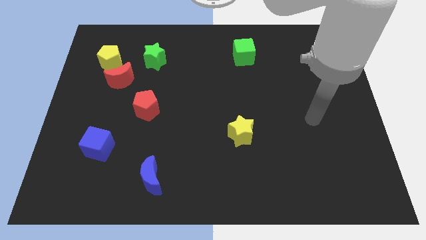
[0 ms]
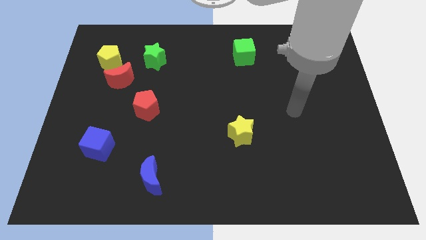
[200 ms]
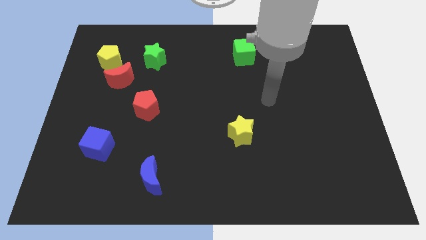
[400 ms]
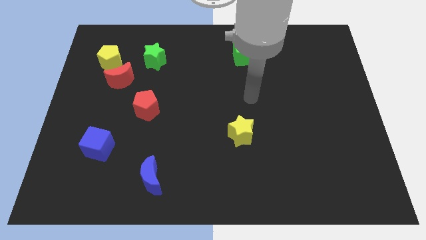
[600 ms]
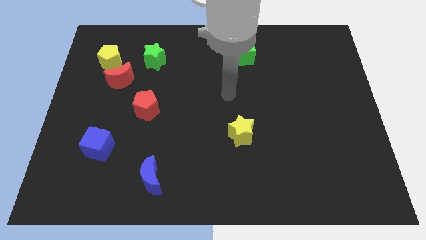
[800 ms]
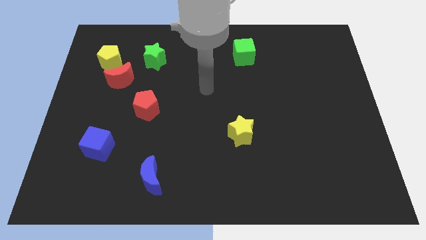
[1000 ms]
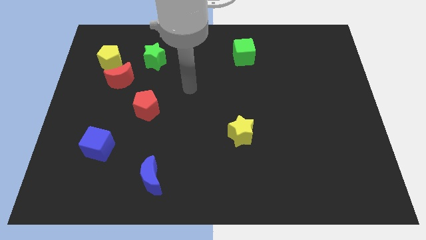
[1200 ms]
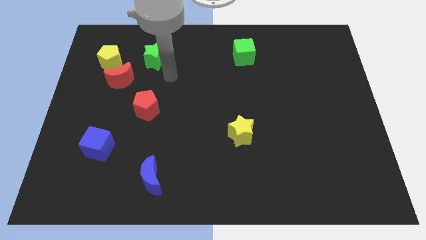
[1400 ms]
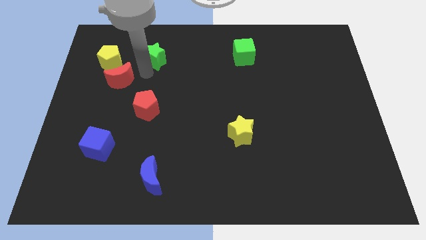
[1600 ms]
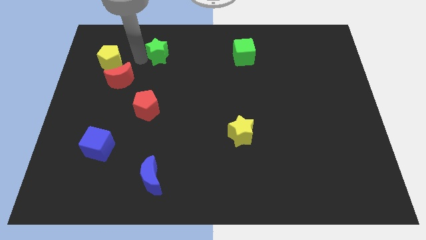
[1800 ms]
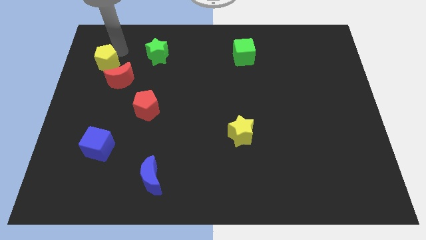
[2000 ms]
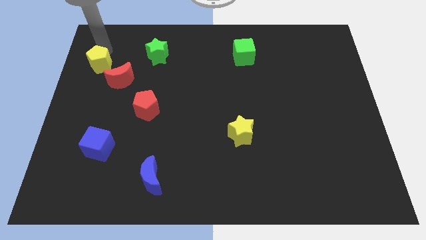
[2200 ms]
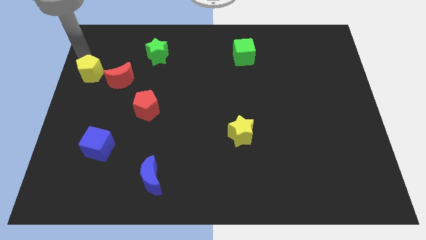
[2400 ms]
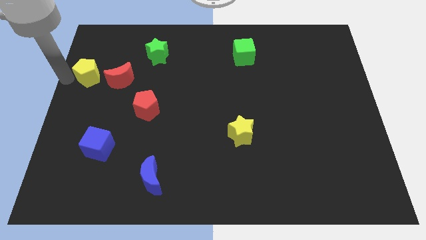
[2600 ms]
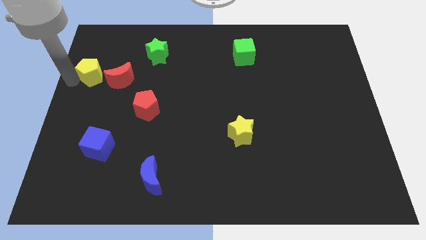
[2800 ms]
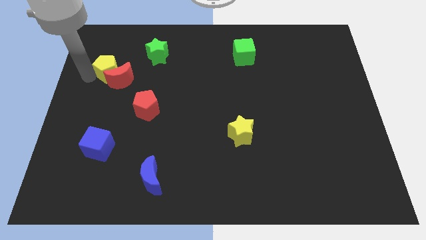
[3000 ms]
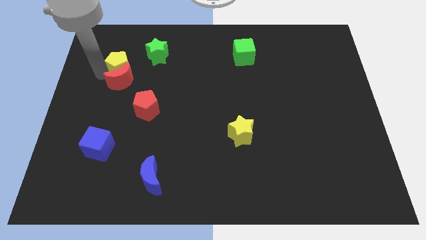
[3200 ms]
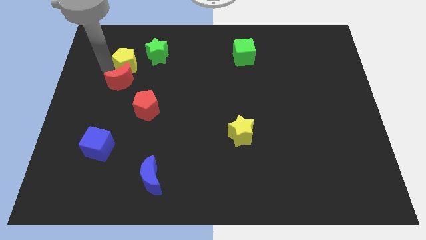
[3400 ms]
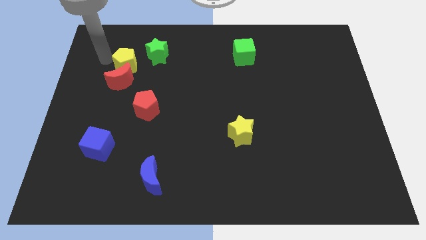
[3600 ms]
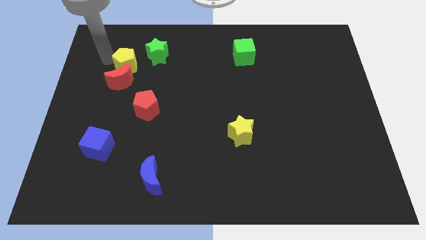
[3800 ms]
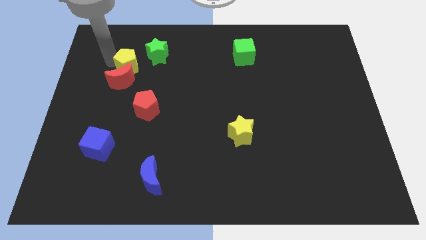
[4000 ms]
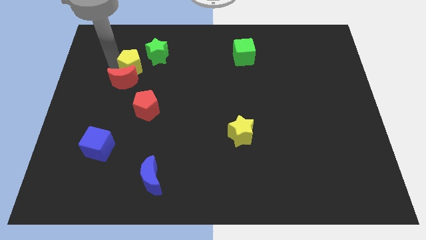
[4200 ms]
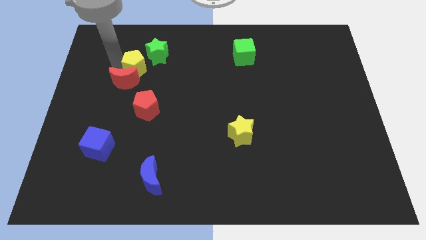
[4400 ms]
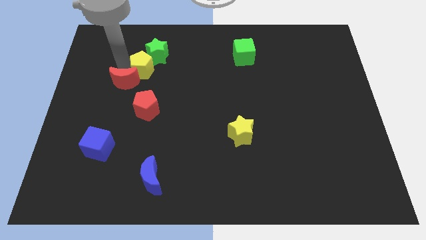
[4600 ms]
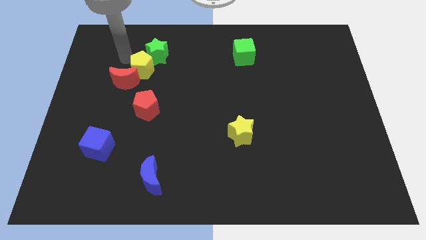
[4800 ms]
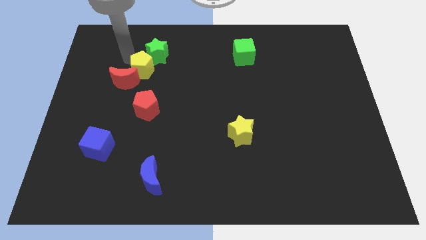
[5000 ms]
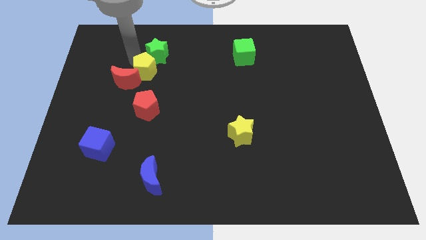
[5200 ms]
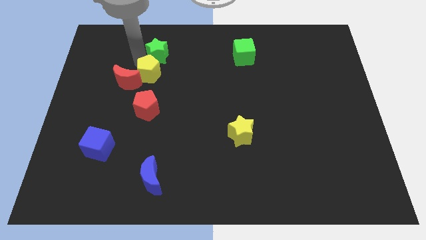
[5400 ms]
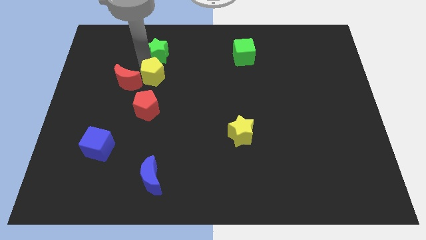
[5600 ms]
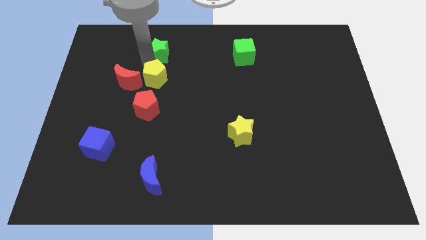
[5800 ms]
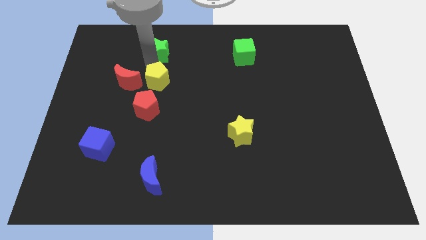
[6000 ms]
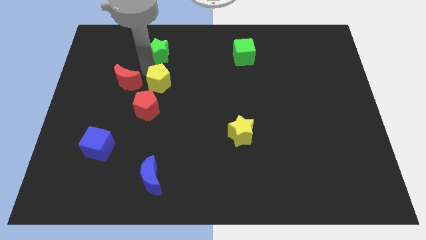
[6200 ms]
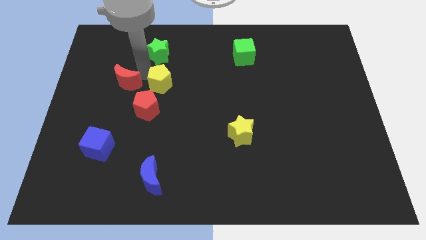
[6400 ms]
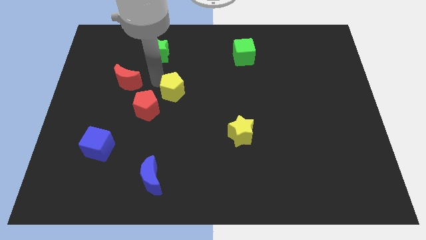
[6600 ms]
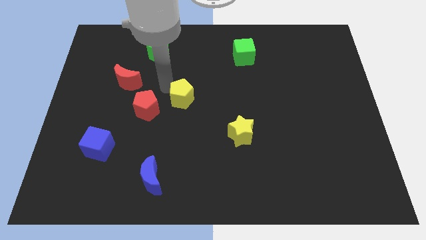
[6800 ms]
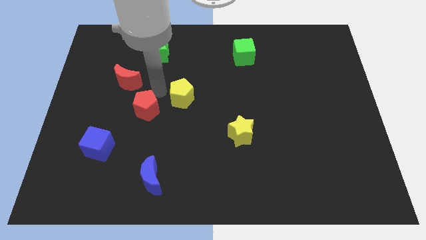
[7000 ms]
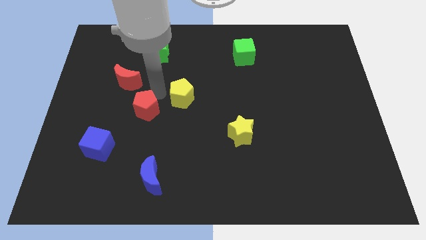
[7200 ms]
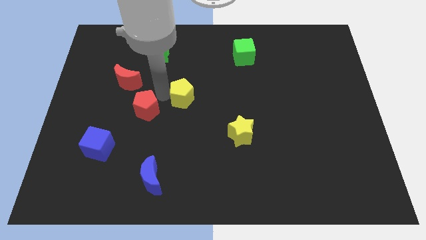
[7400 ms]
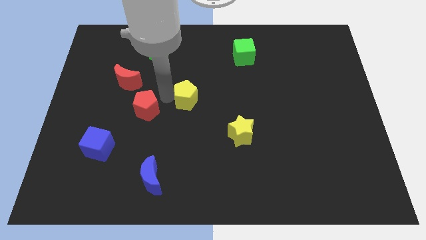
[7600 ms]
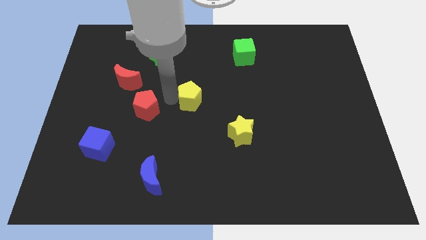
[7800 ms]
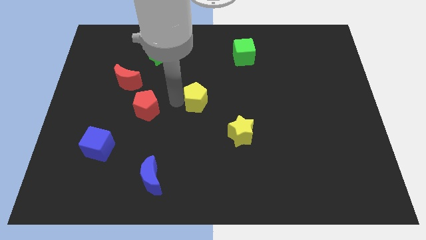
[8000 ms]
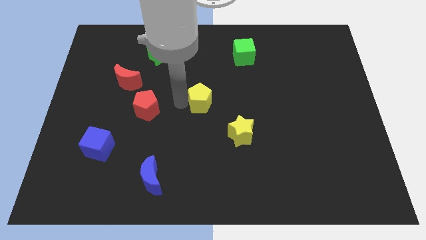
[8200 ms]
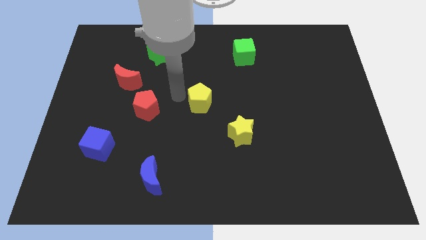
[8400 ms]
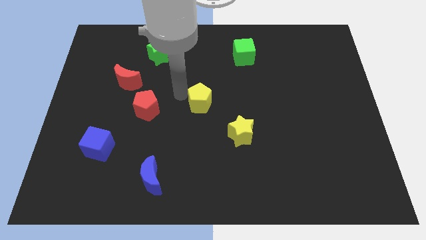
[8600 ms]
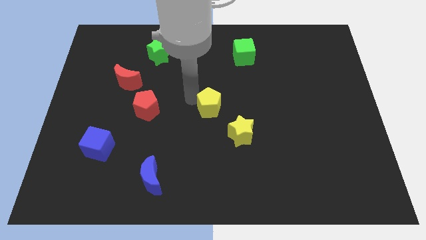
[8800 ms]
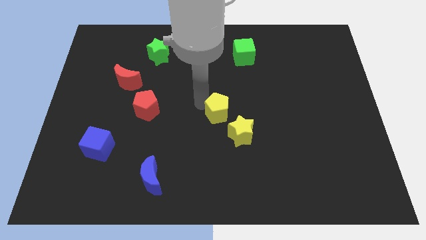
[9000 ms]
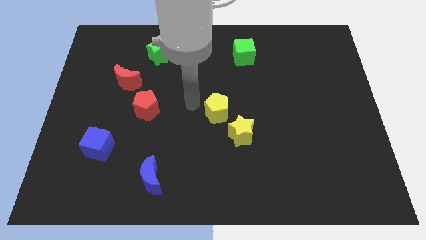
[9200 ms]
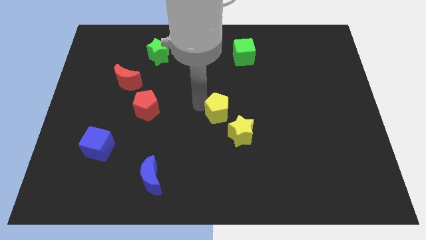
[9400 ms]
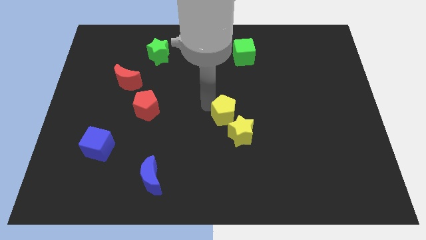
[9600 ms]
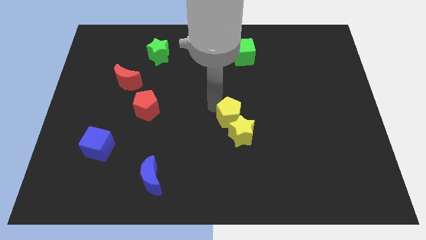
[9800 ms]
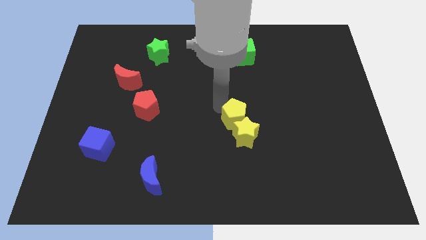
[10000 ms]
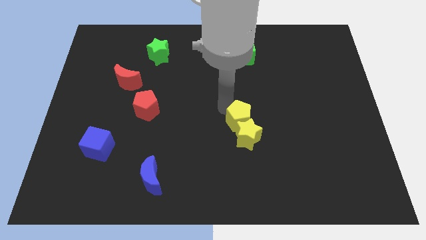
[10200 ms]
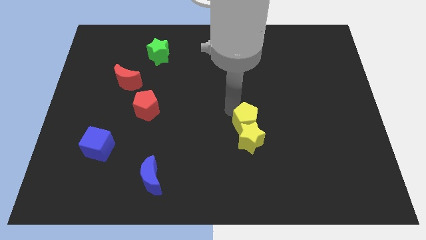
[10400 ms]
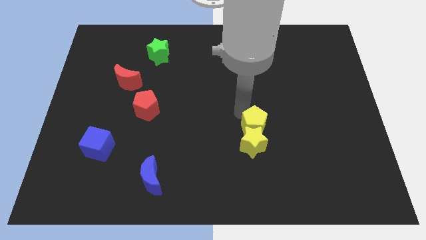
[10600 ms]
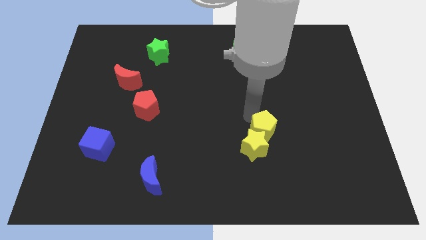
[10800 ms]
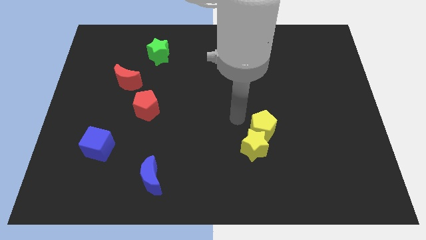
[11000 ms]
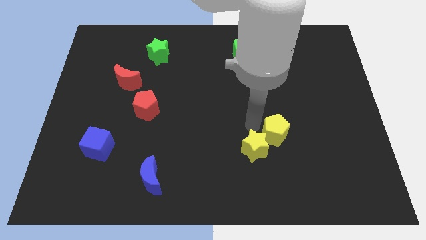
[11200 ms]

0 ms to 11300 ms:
put the yellow pentagon to the right of the yellow star

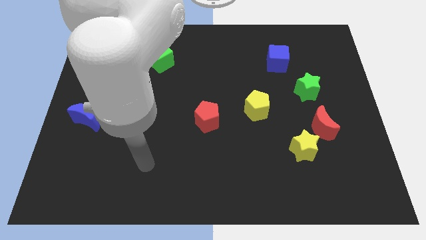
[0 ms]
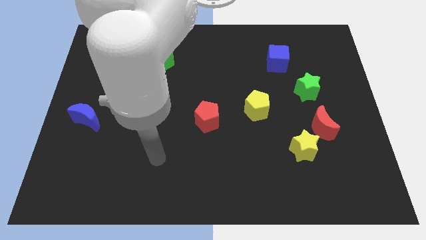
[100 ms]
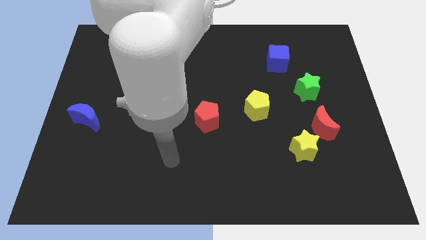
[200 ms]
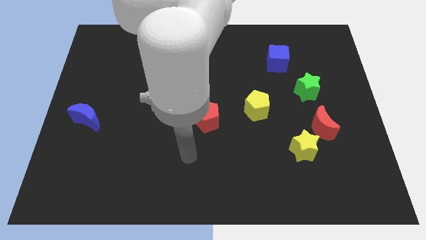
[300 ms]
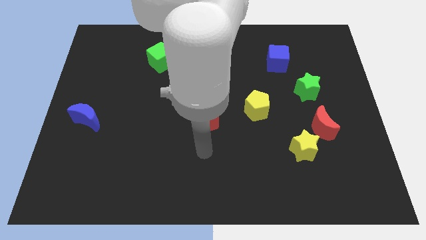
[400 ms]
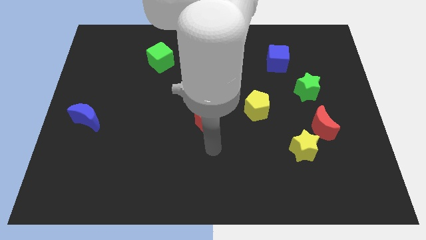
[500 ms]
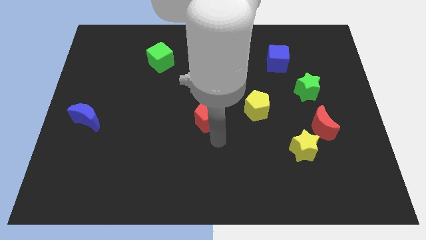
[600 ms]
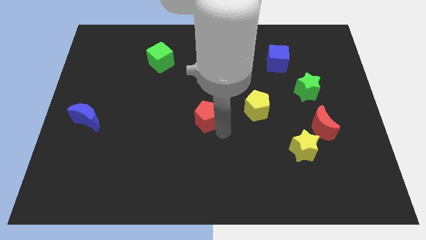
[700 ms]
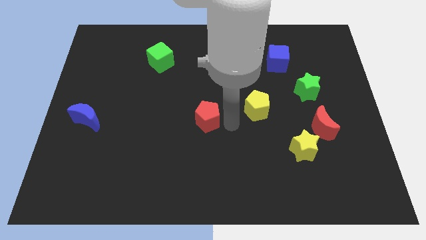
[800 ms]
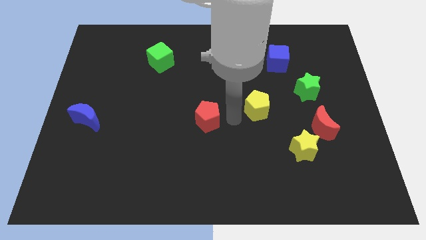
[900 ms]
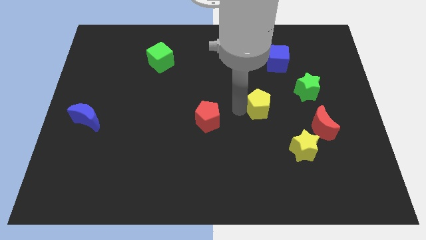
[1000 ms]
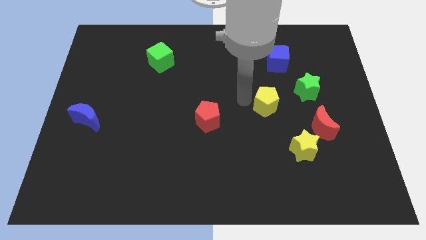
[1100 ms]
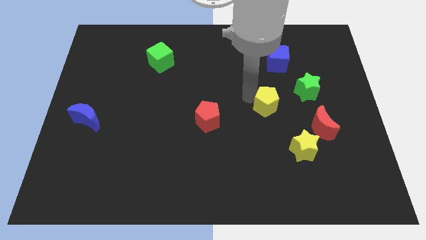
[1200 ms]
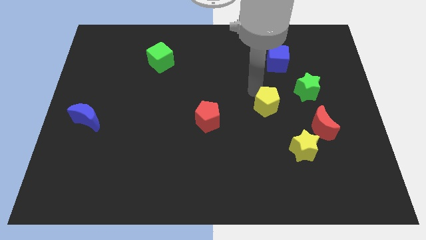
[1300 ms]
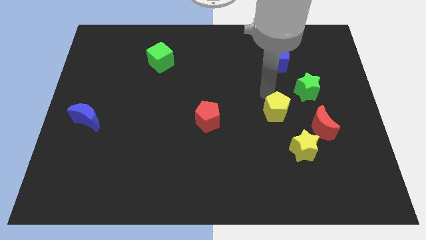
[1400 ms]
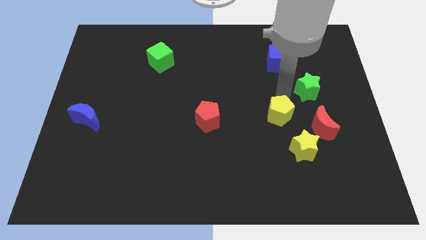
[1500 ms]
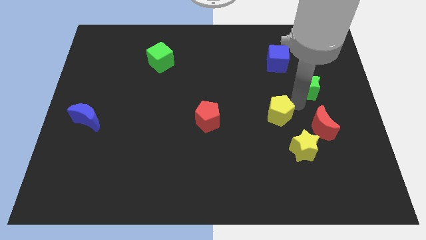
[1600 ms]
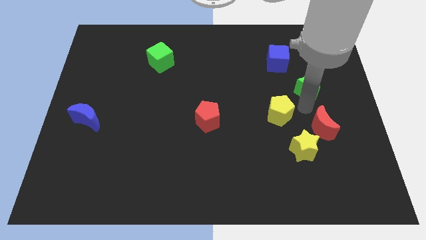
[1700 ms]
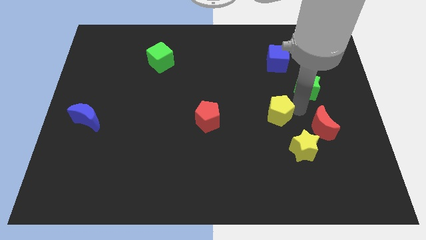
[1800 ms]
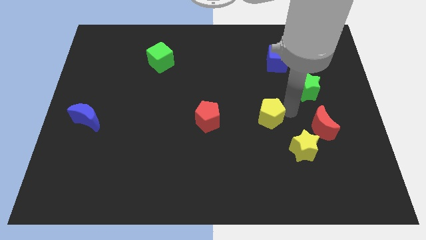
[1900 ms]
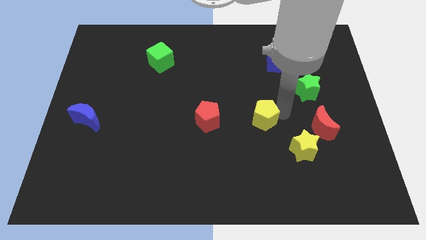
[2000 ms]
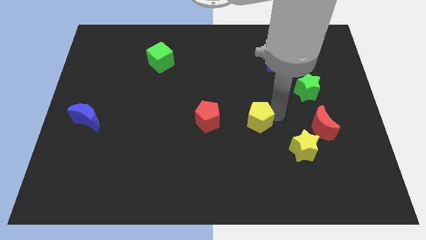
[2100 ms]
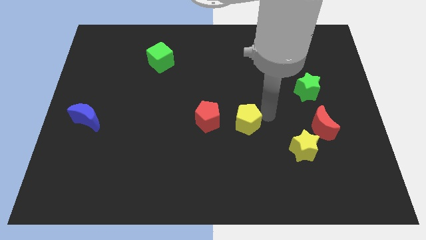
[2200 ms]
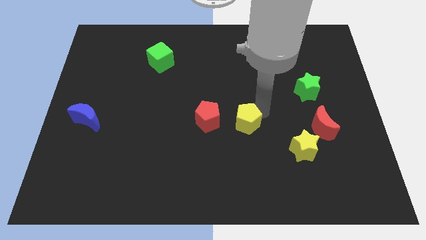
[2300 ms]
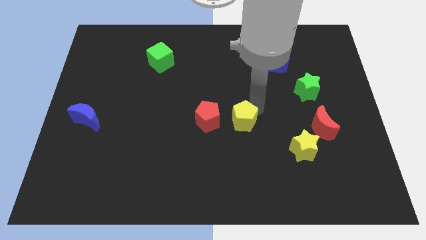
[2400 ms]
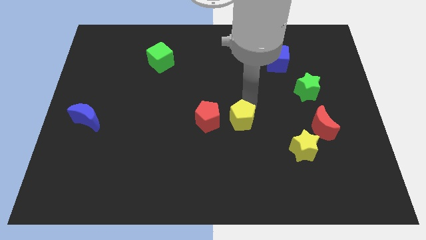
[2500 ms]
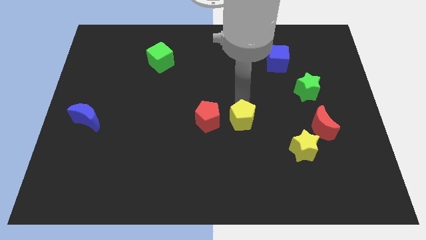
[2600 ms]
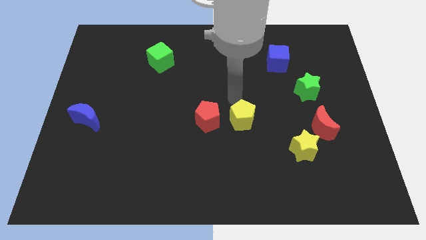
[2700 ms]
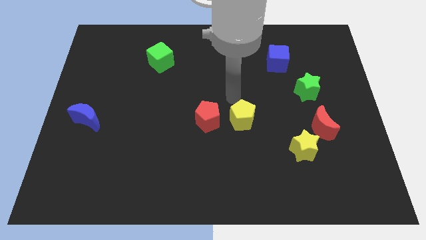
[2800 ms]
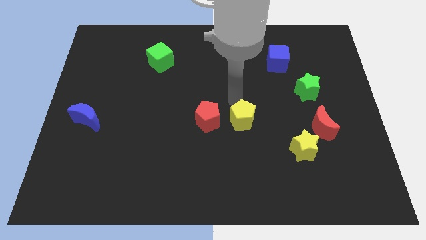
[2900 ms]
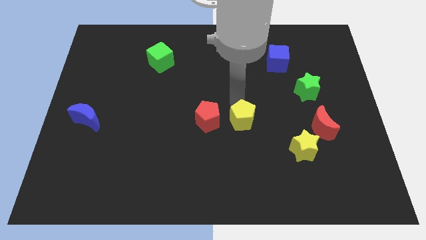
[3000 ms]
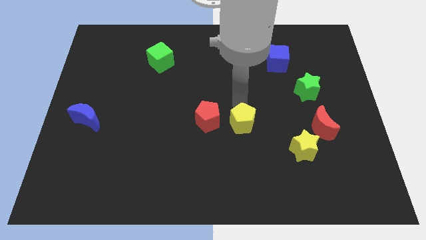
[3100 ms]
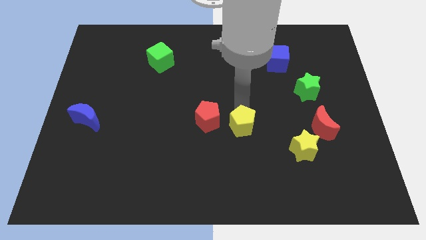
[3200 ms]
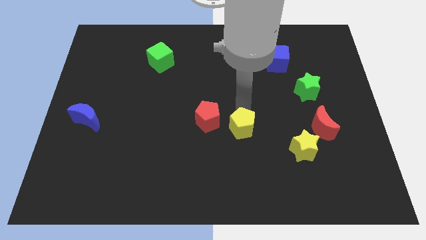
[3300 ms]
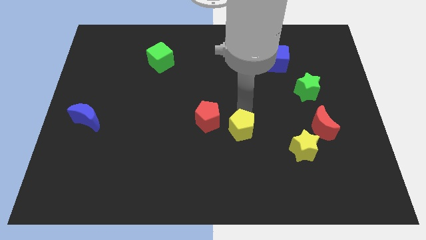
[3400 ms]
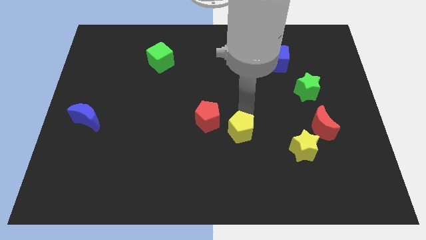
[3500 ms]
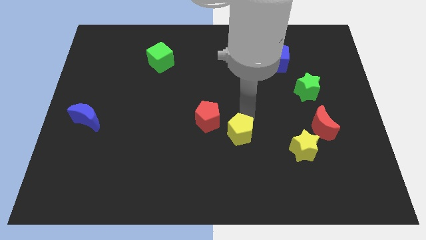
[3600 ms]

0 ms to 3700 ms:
move the yellow pentagon to the left of the yellow star
